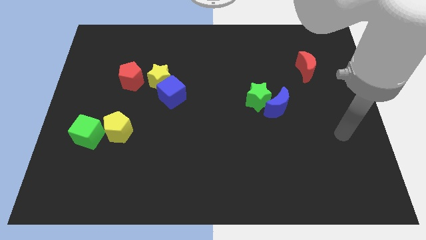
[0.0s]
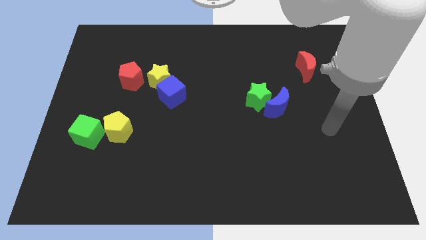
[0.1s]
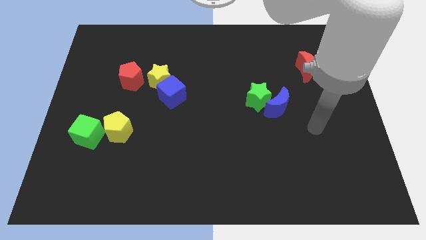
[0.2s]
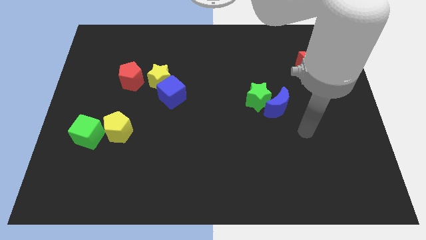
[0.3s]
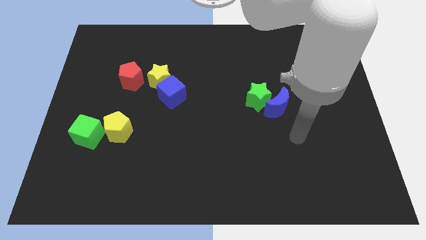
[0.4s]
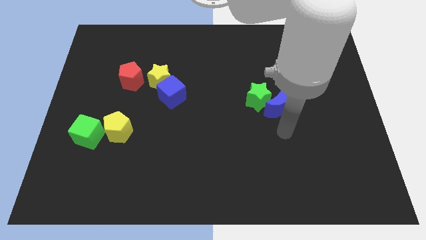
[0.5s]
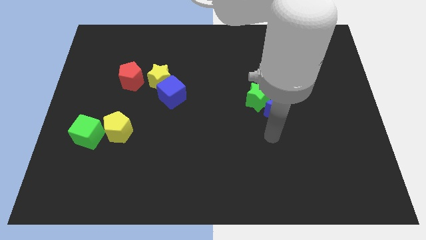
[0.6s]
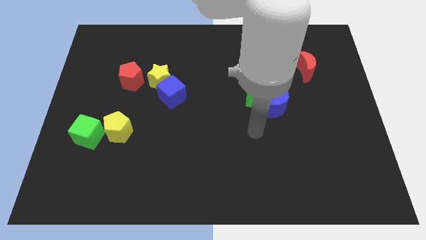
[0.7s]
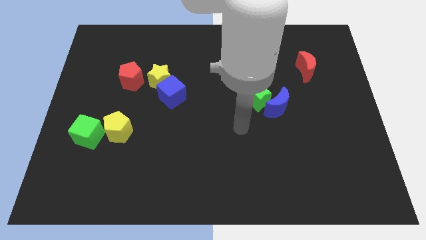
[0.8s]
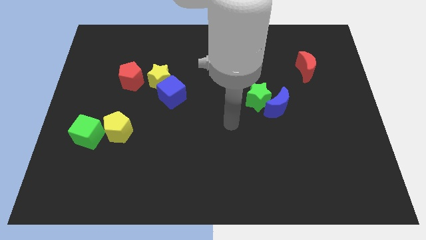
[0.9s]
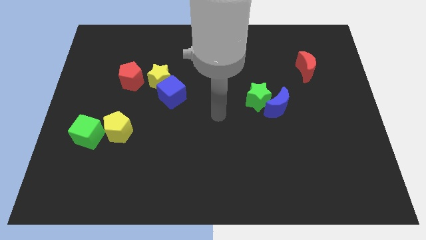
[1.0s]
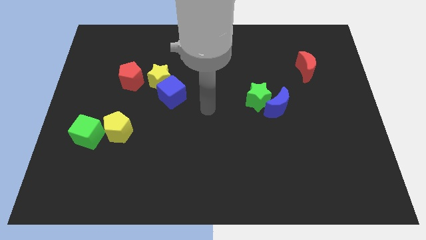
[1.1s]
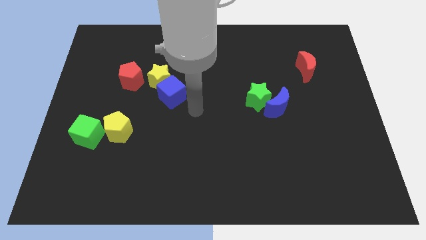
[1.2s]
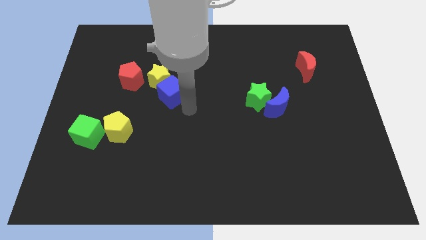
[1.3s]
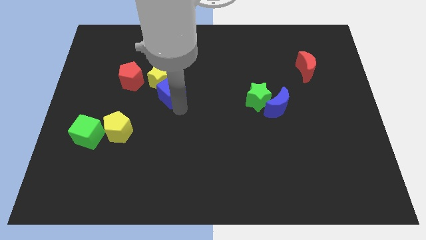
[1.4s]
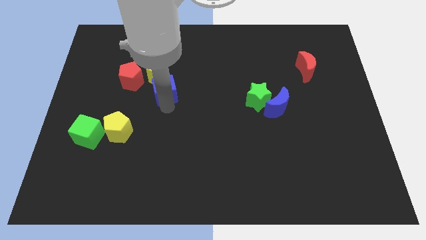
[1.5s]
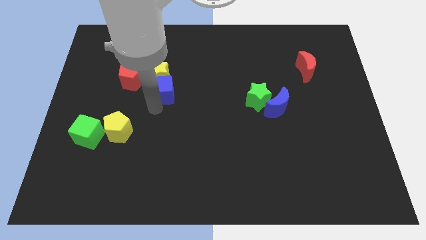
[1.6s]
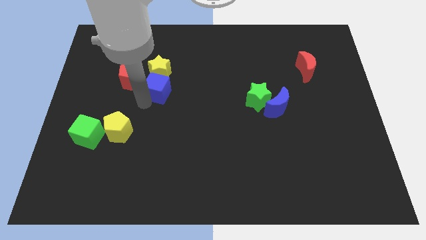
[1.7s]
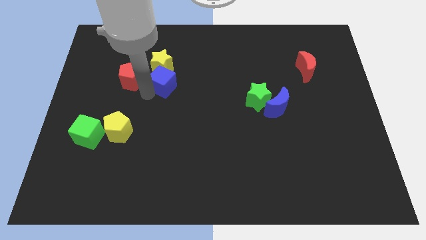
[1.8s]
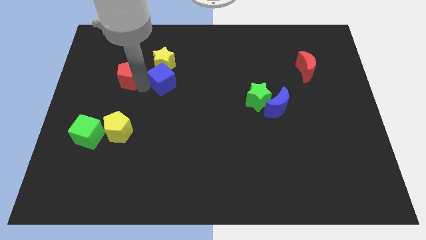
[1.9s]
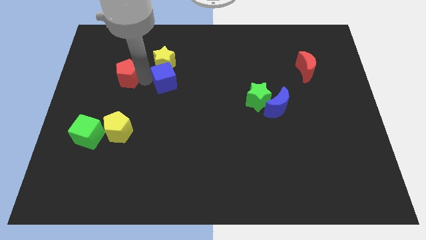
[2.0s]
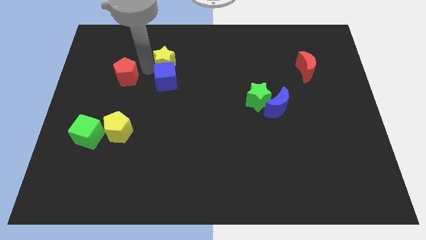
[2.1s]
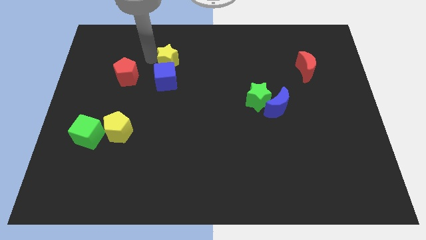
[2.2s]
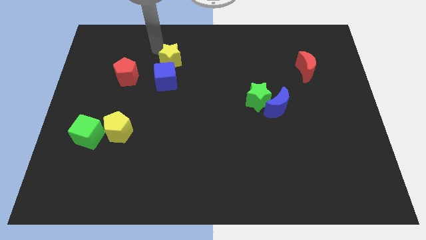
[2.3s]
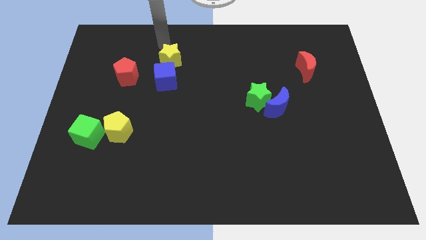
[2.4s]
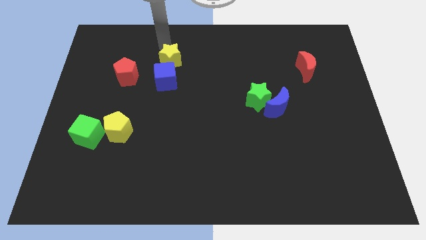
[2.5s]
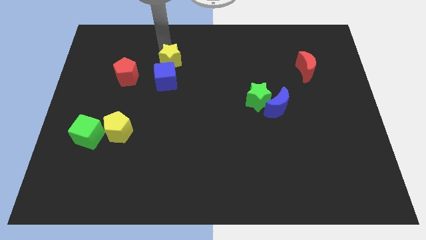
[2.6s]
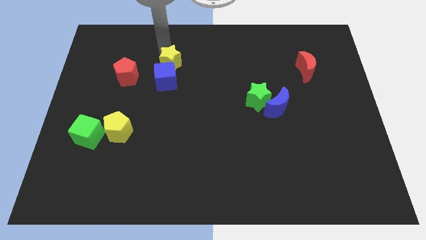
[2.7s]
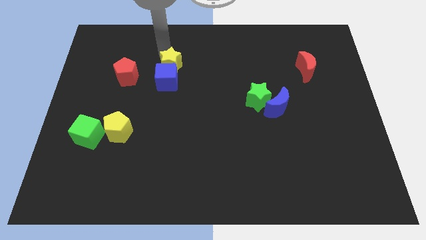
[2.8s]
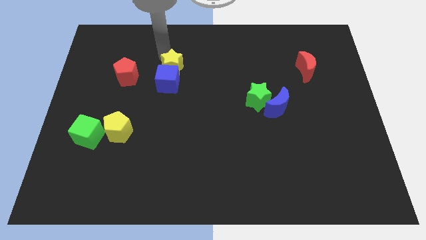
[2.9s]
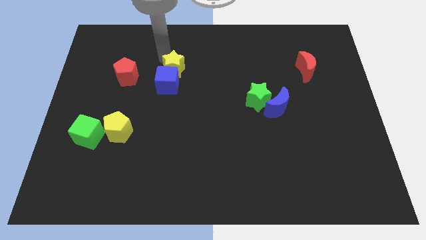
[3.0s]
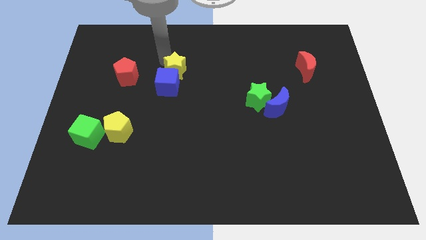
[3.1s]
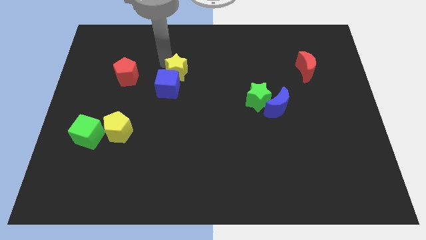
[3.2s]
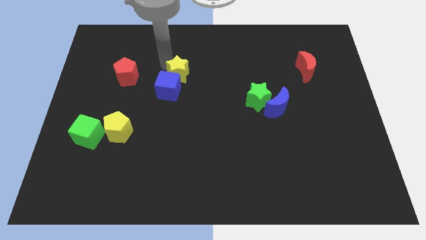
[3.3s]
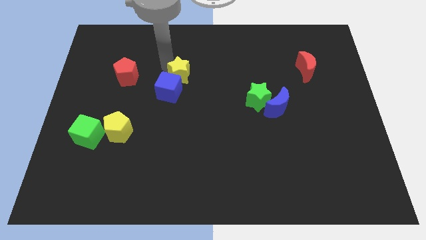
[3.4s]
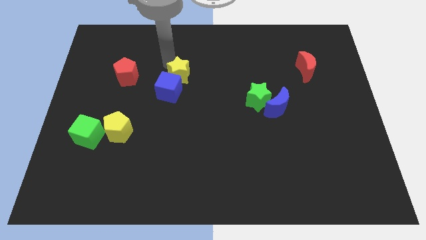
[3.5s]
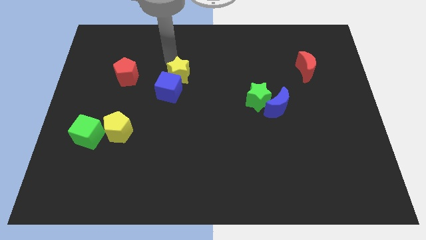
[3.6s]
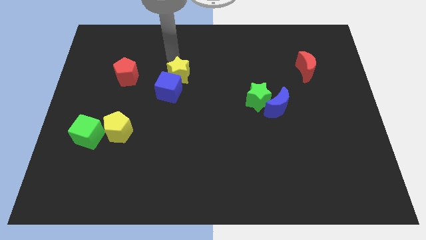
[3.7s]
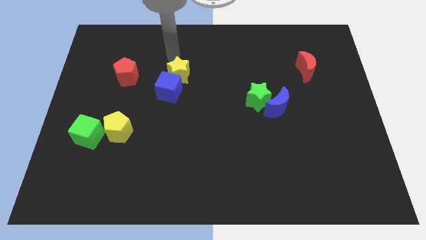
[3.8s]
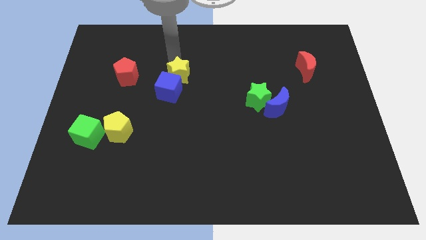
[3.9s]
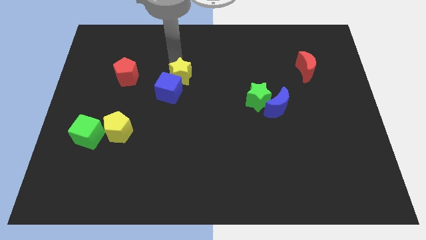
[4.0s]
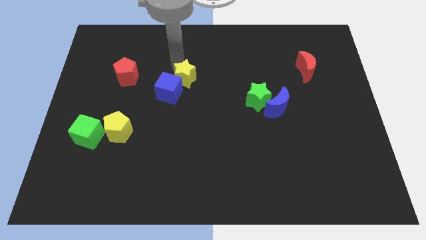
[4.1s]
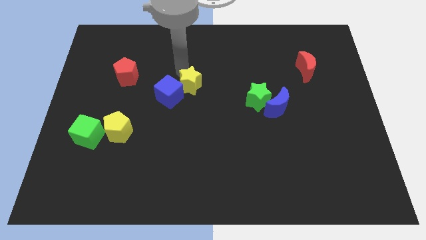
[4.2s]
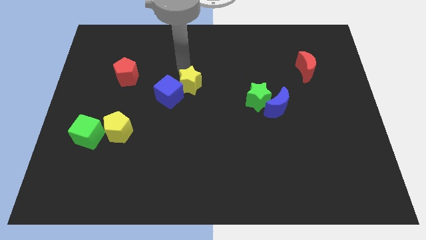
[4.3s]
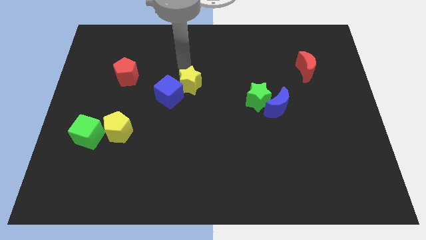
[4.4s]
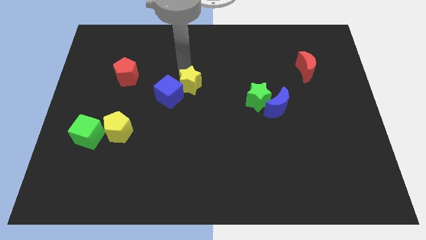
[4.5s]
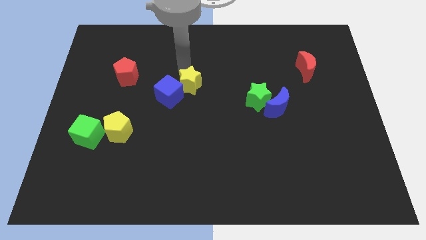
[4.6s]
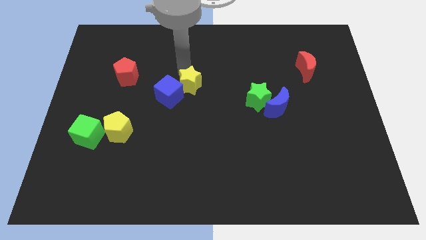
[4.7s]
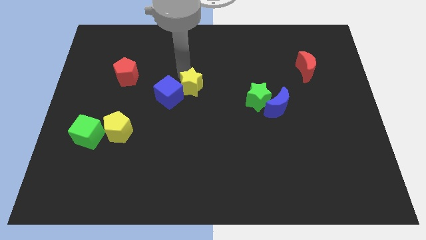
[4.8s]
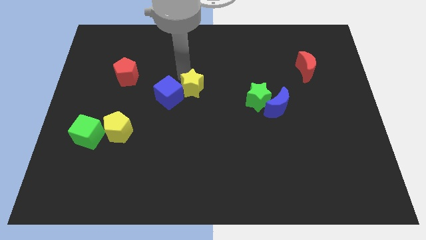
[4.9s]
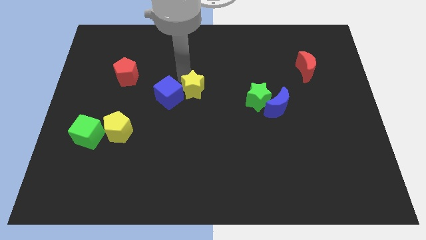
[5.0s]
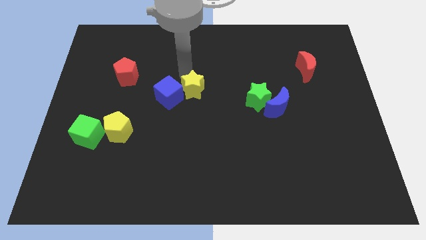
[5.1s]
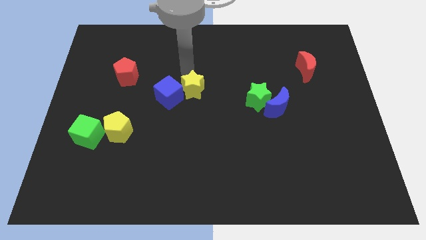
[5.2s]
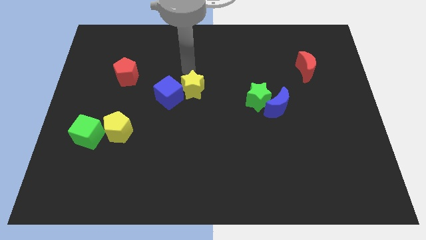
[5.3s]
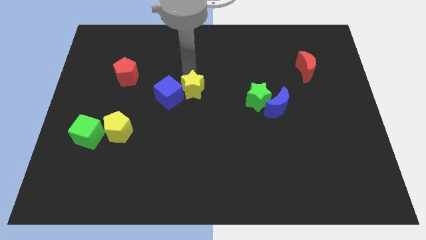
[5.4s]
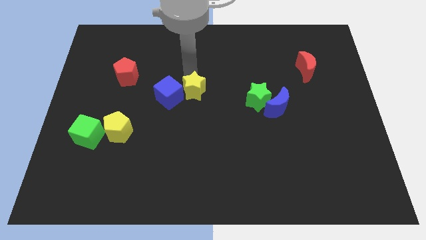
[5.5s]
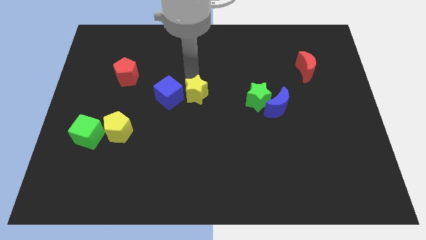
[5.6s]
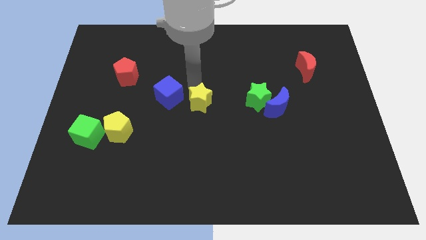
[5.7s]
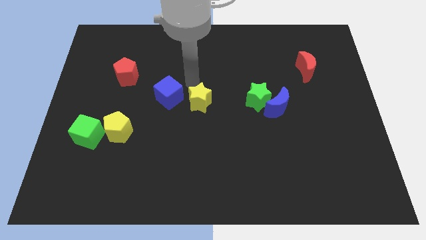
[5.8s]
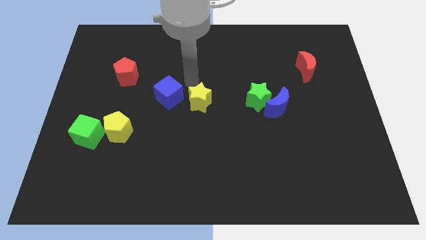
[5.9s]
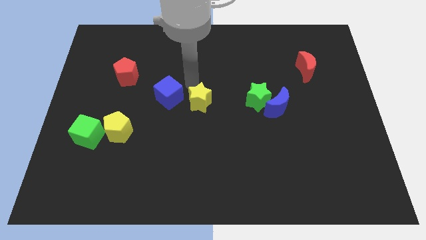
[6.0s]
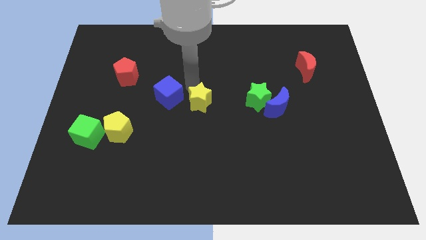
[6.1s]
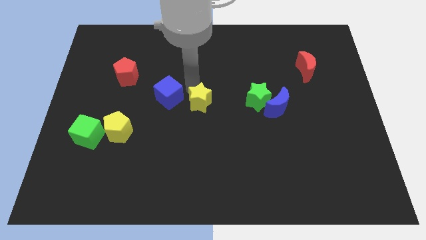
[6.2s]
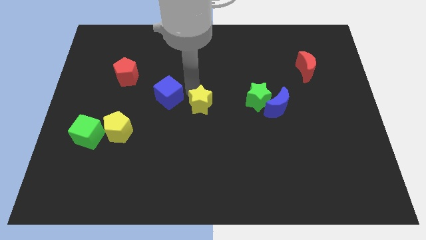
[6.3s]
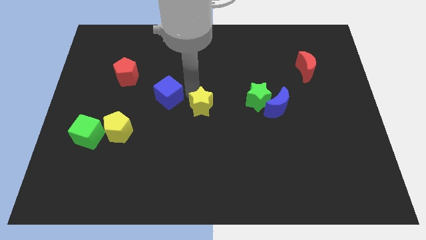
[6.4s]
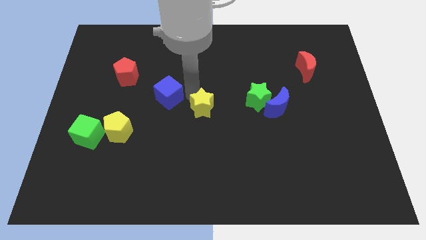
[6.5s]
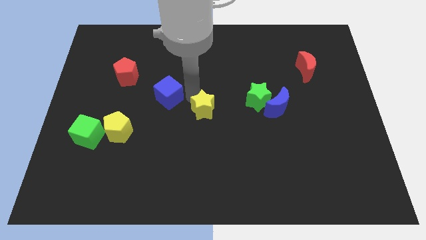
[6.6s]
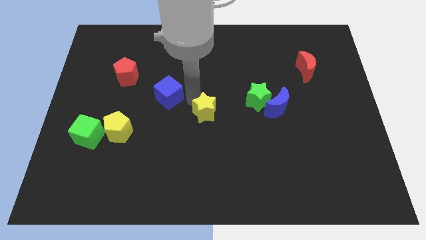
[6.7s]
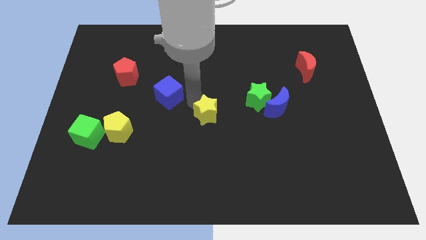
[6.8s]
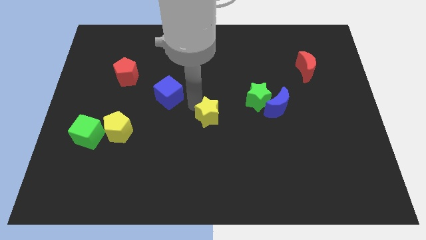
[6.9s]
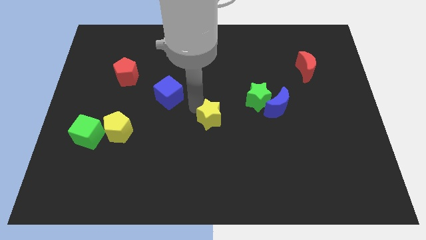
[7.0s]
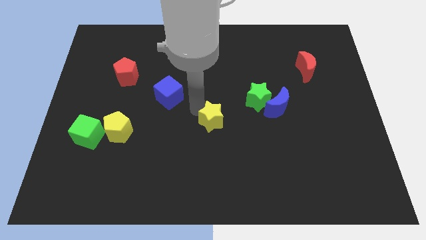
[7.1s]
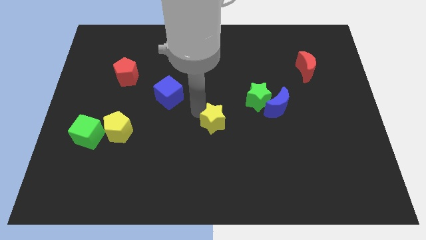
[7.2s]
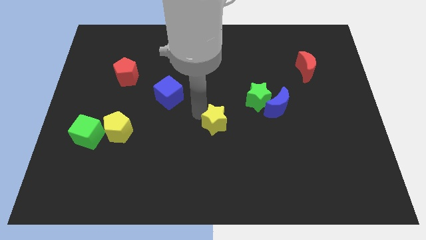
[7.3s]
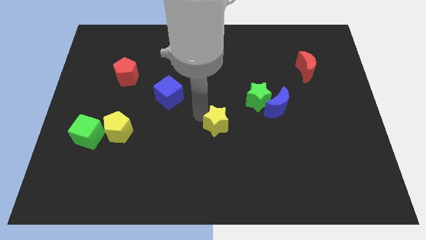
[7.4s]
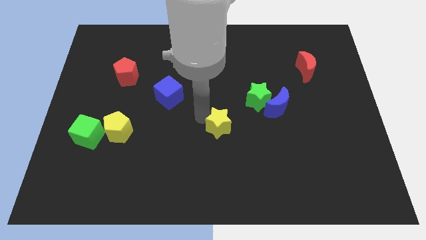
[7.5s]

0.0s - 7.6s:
move the yellow star downwards and right diagonally

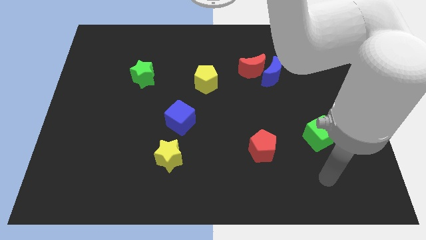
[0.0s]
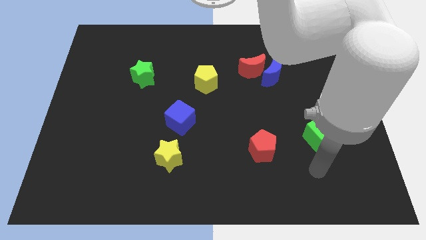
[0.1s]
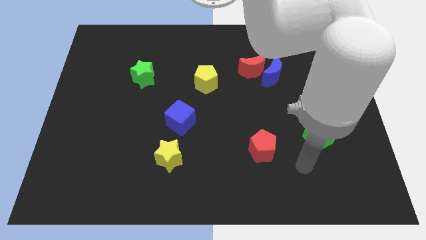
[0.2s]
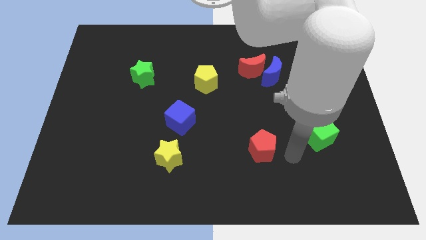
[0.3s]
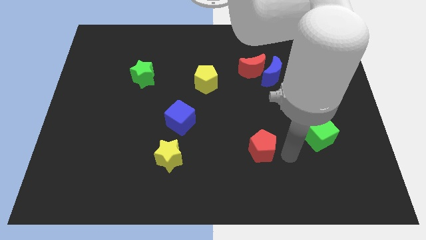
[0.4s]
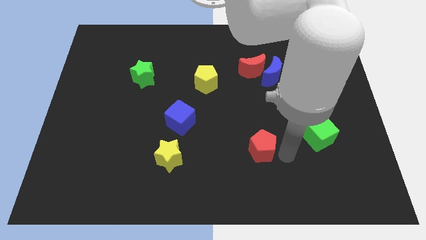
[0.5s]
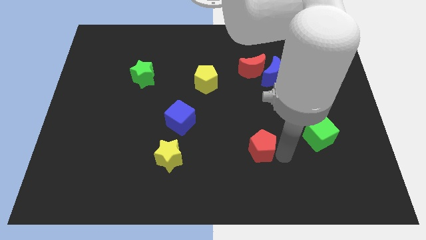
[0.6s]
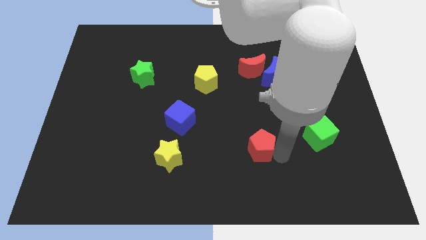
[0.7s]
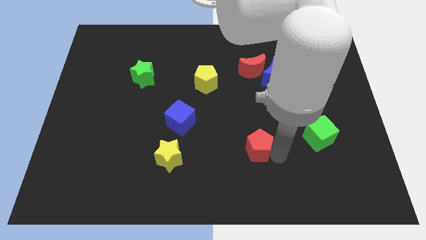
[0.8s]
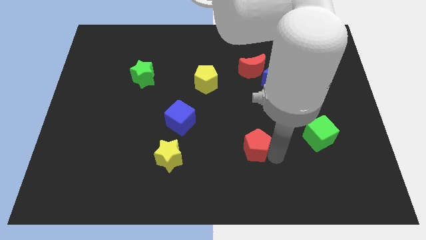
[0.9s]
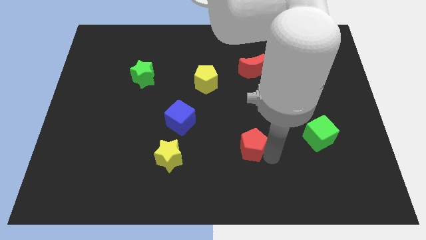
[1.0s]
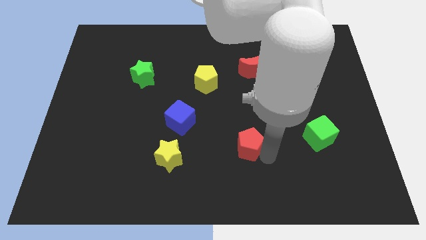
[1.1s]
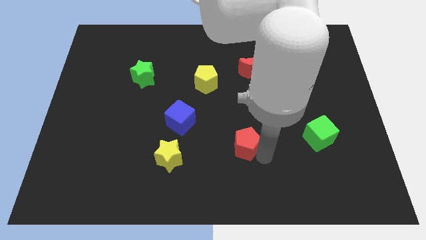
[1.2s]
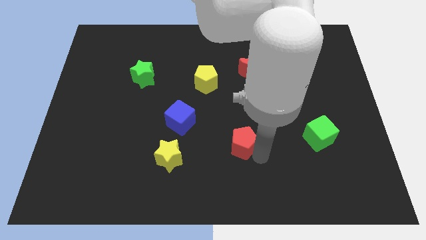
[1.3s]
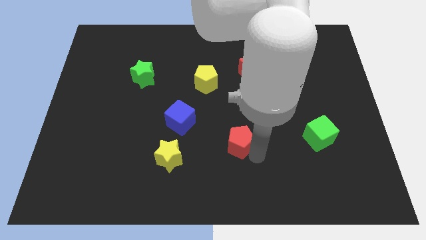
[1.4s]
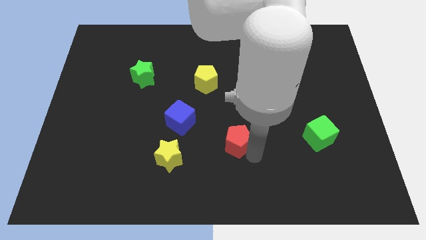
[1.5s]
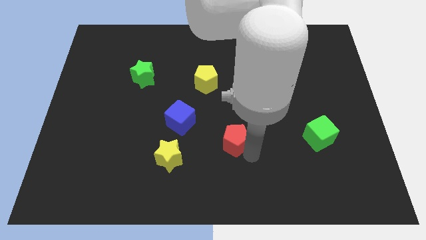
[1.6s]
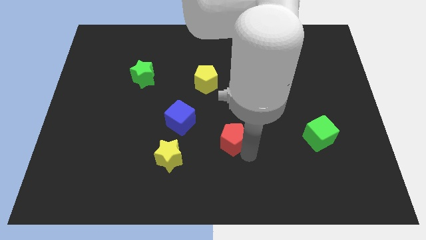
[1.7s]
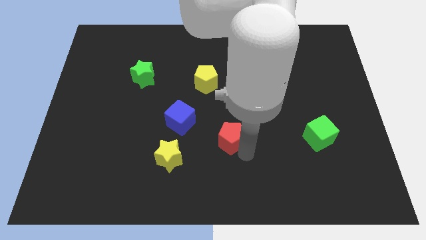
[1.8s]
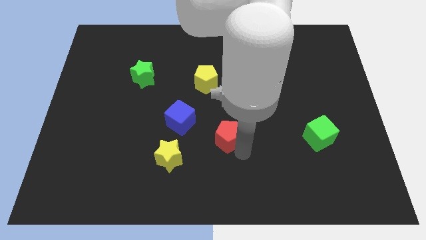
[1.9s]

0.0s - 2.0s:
move the red pentagon a little bit up and left diagonally
